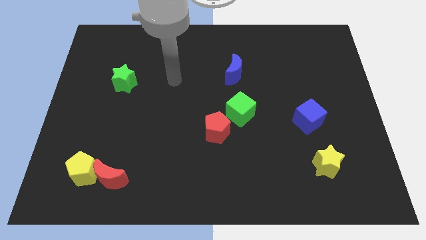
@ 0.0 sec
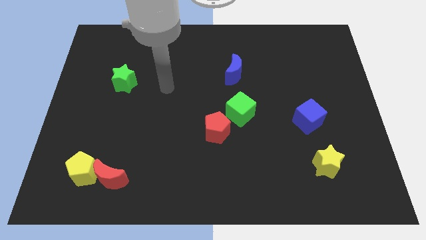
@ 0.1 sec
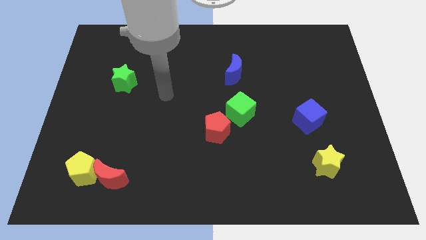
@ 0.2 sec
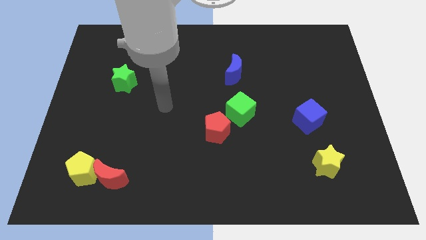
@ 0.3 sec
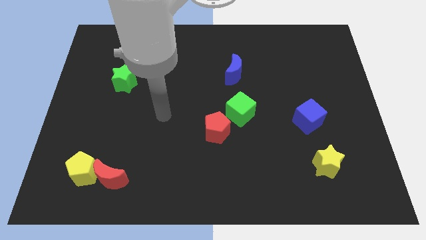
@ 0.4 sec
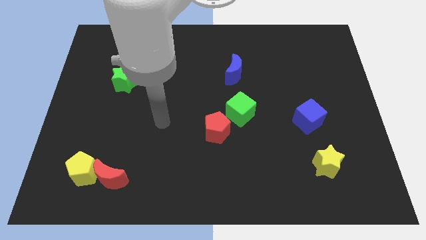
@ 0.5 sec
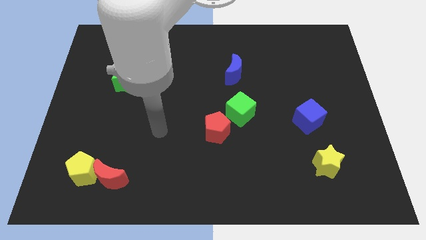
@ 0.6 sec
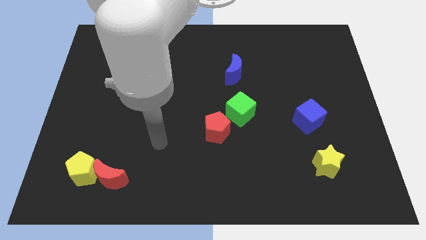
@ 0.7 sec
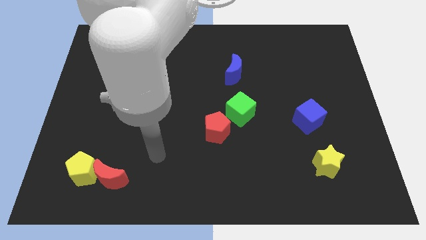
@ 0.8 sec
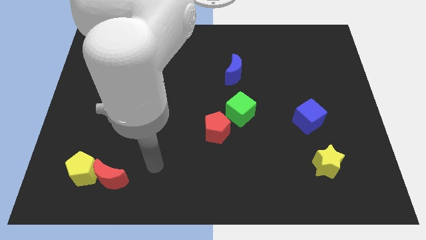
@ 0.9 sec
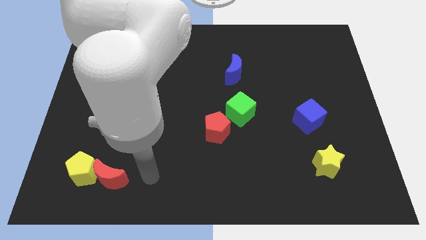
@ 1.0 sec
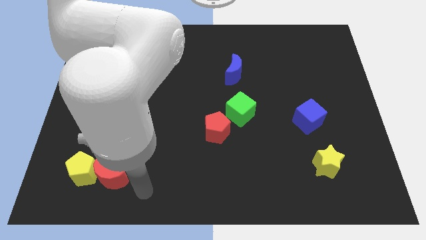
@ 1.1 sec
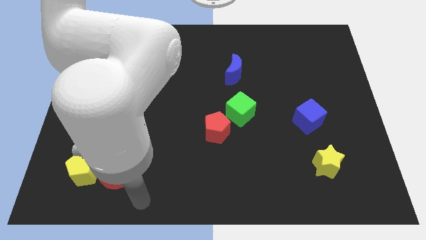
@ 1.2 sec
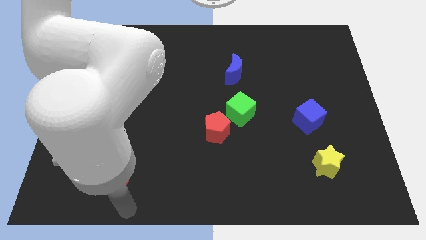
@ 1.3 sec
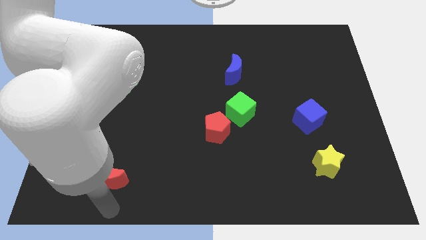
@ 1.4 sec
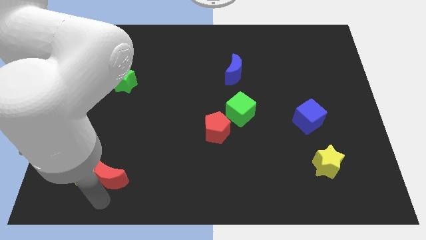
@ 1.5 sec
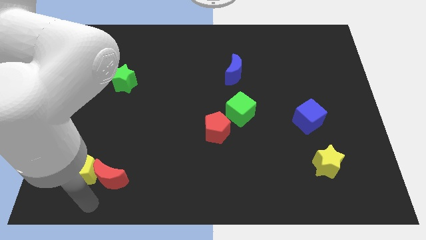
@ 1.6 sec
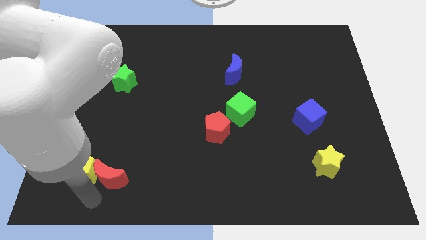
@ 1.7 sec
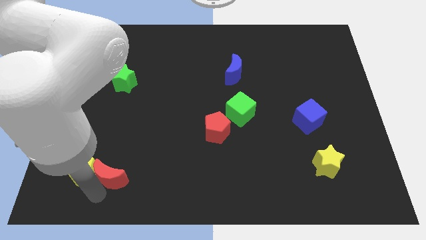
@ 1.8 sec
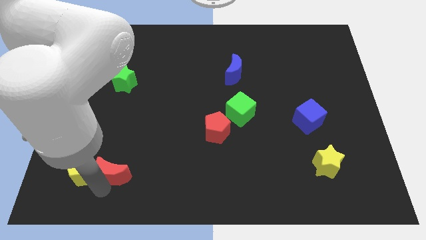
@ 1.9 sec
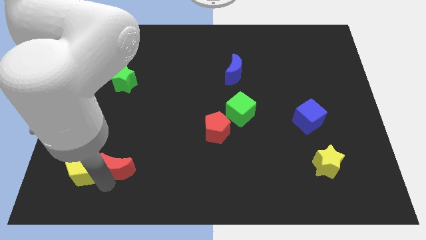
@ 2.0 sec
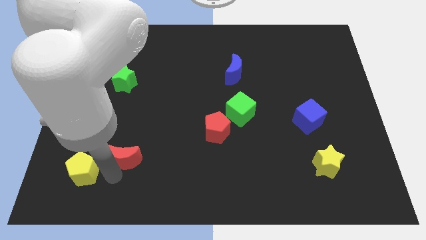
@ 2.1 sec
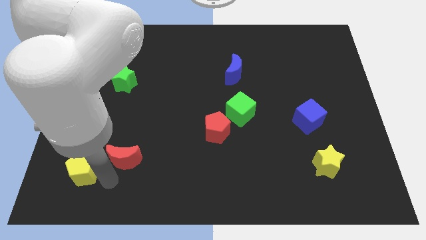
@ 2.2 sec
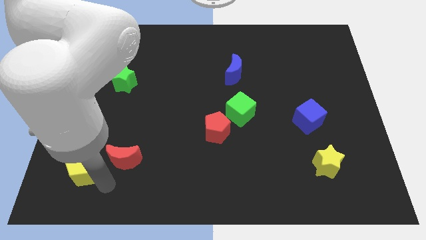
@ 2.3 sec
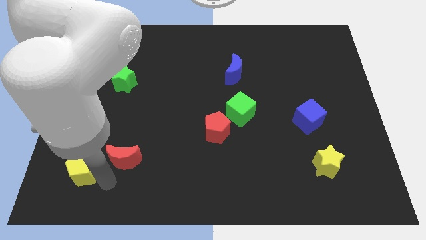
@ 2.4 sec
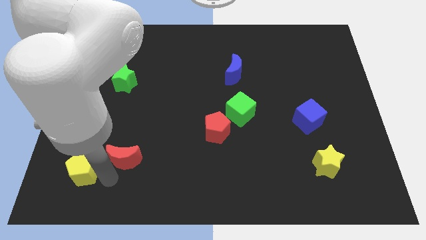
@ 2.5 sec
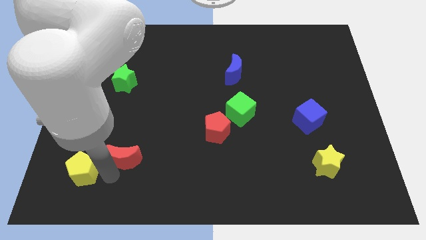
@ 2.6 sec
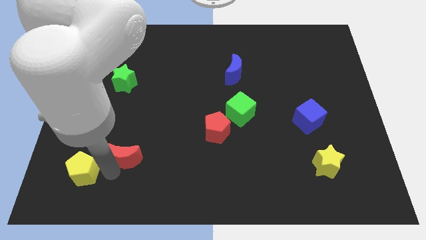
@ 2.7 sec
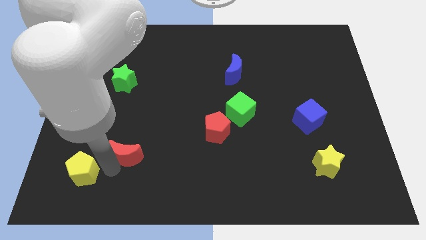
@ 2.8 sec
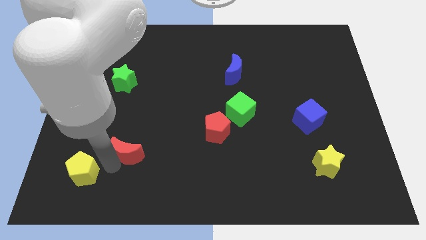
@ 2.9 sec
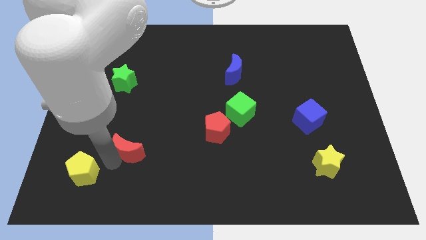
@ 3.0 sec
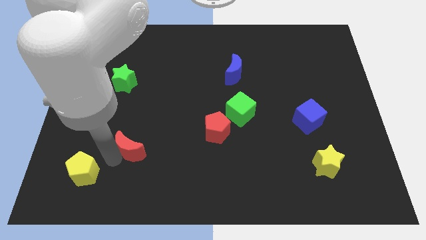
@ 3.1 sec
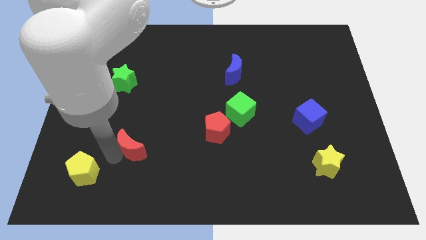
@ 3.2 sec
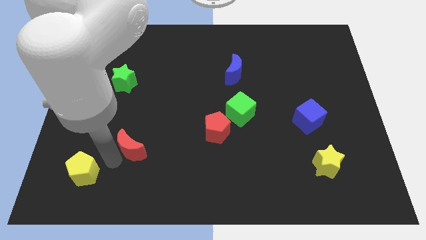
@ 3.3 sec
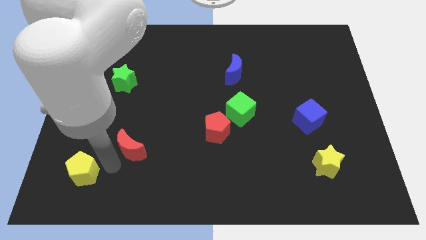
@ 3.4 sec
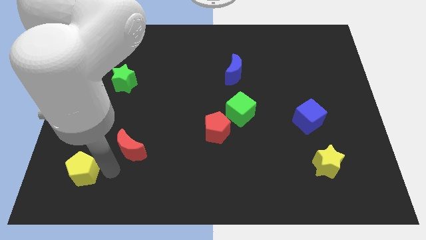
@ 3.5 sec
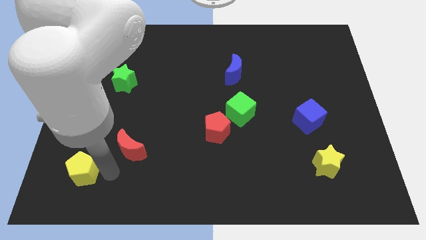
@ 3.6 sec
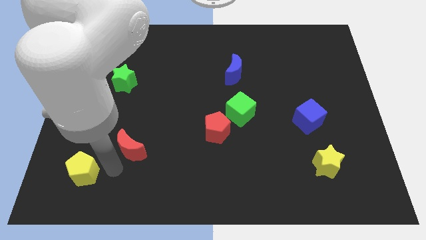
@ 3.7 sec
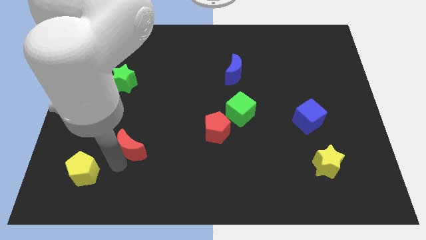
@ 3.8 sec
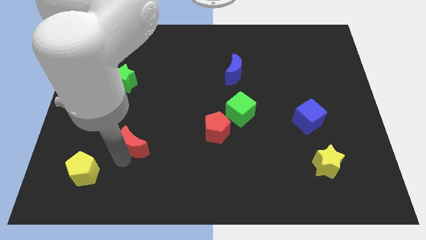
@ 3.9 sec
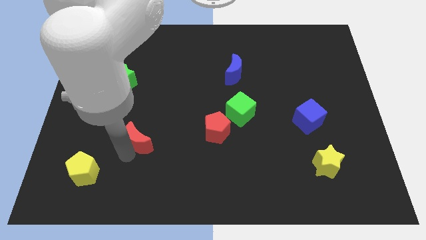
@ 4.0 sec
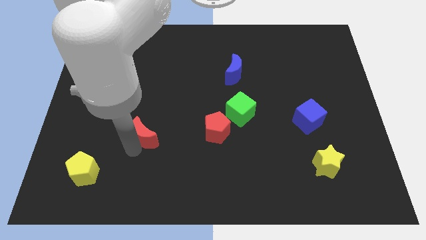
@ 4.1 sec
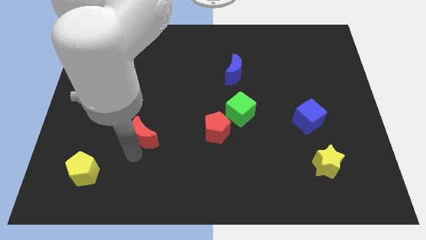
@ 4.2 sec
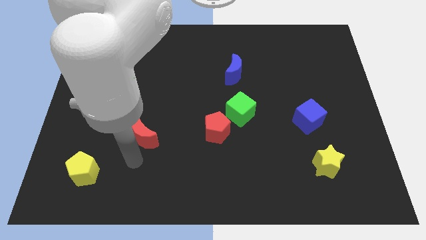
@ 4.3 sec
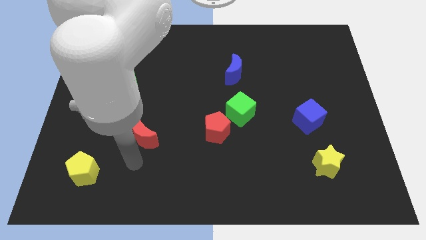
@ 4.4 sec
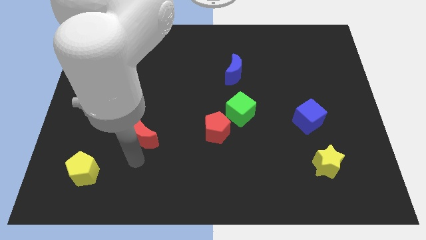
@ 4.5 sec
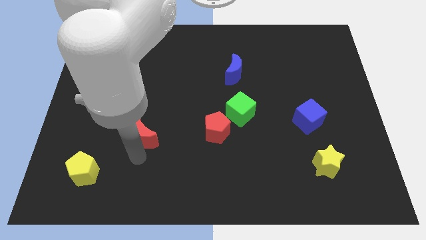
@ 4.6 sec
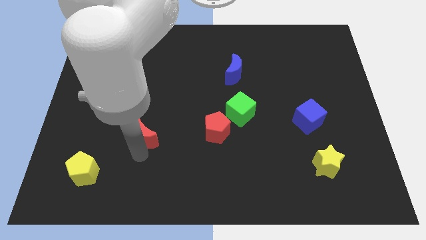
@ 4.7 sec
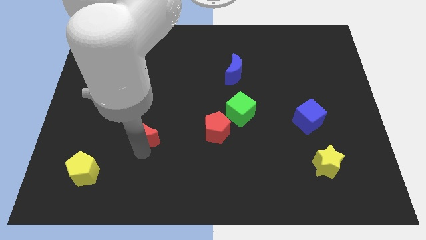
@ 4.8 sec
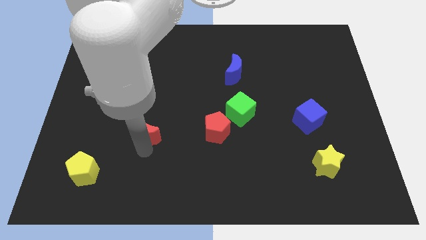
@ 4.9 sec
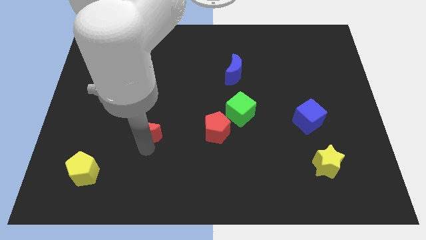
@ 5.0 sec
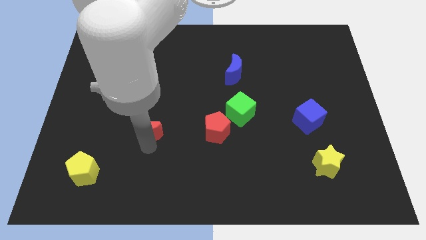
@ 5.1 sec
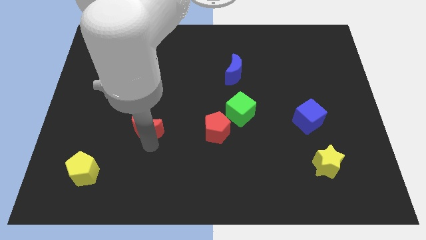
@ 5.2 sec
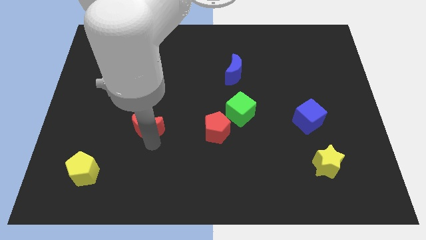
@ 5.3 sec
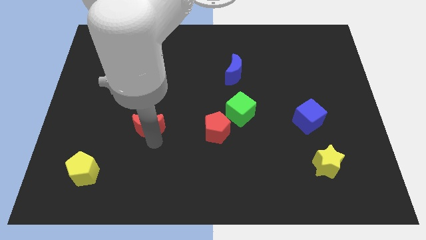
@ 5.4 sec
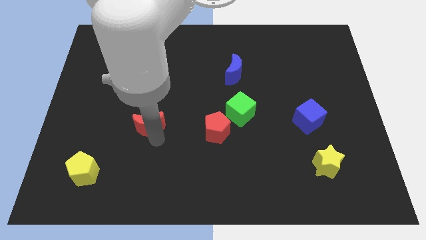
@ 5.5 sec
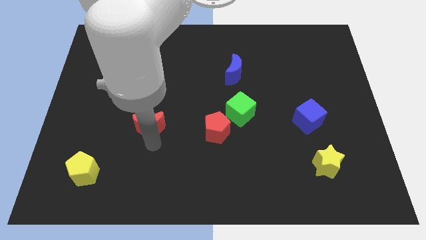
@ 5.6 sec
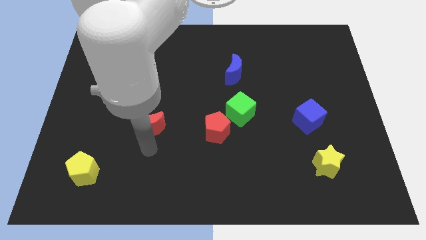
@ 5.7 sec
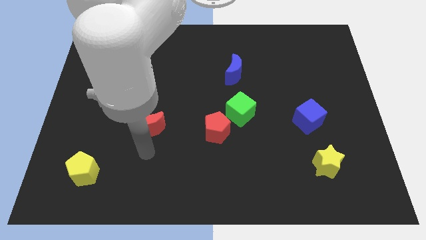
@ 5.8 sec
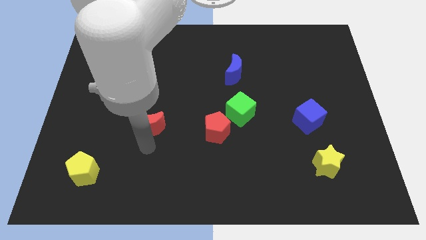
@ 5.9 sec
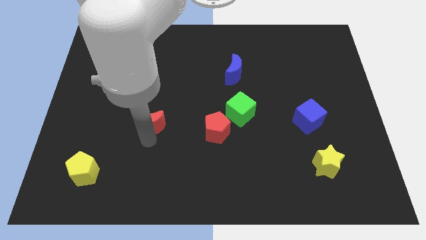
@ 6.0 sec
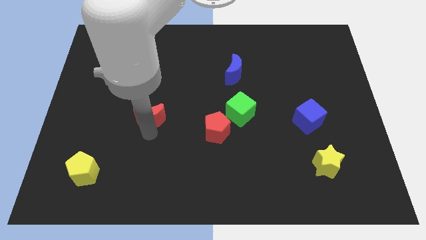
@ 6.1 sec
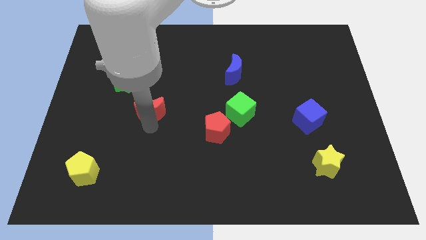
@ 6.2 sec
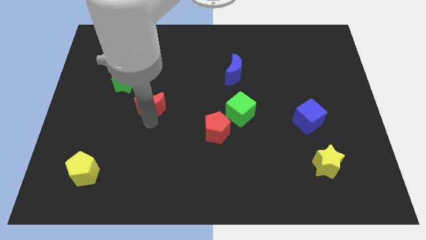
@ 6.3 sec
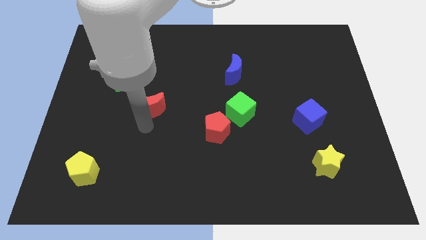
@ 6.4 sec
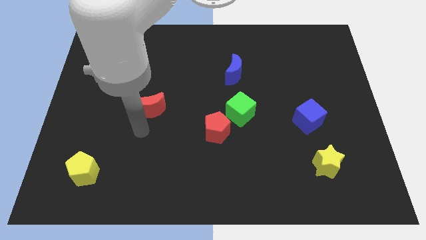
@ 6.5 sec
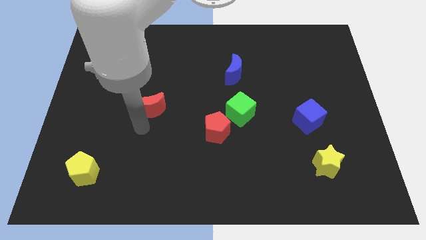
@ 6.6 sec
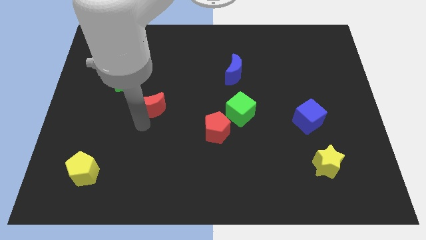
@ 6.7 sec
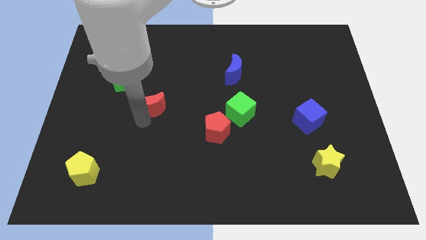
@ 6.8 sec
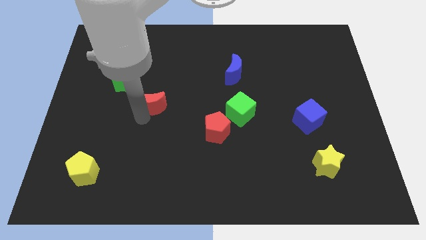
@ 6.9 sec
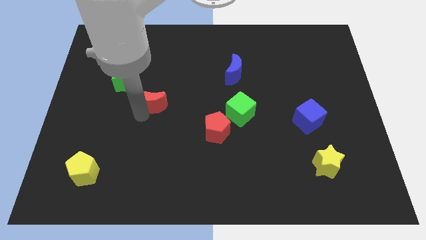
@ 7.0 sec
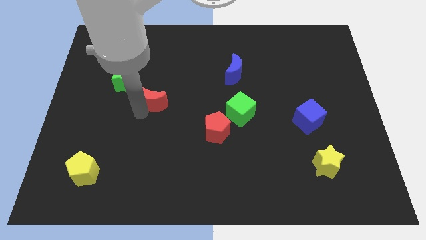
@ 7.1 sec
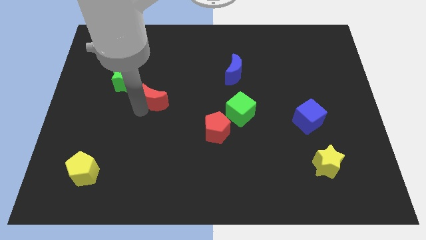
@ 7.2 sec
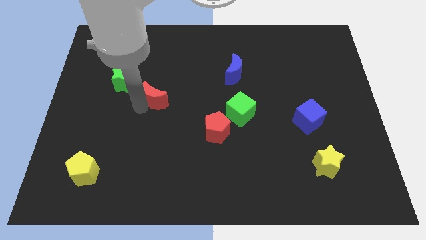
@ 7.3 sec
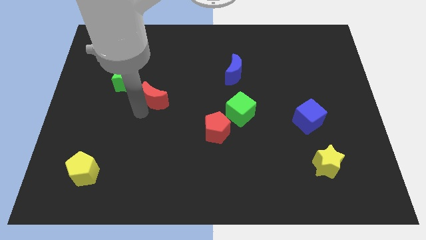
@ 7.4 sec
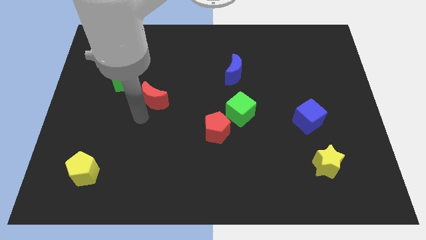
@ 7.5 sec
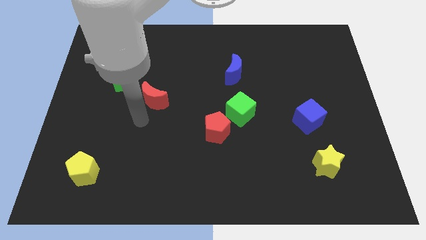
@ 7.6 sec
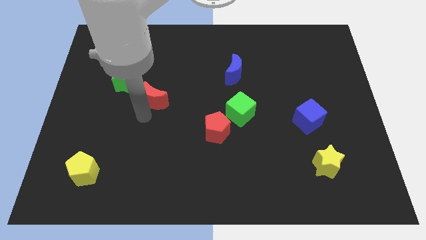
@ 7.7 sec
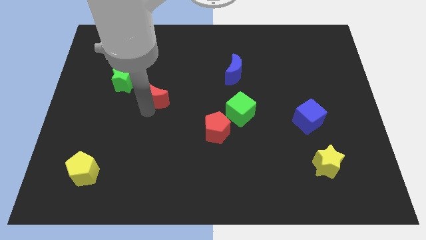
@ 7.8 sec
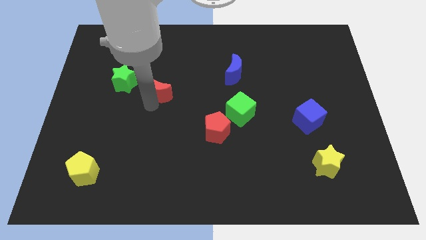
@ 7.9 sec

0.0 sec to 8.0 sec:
move the red moon to the right of the green star
